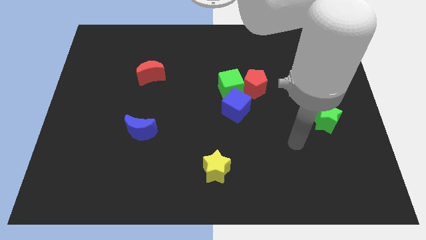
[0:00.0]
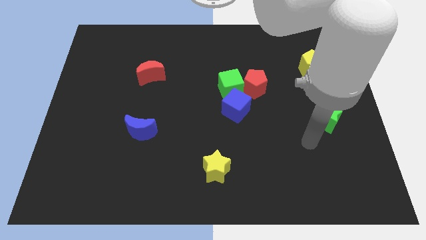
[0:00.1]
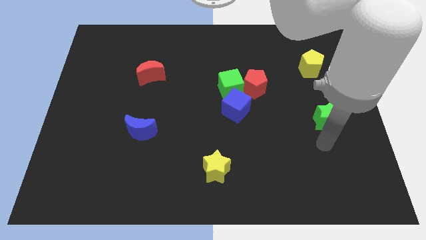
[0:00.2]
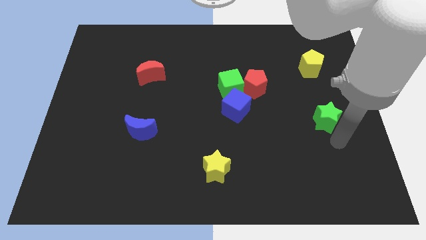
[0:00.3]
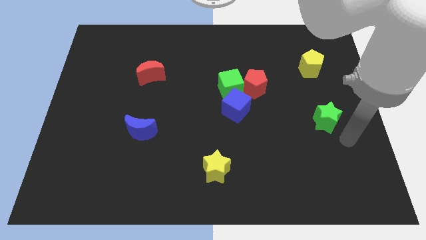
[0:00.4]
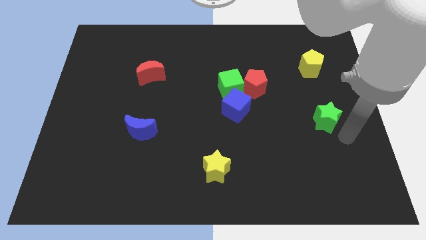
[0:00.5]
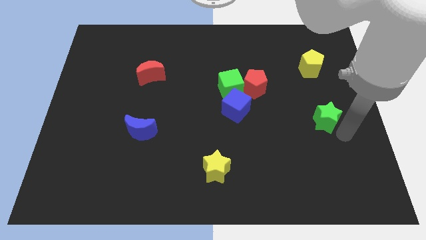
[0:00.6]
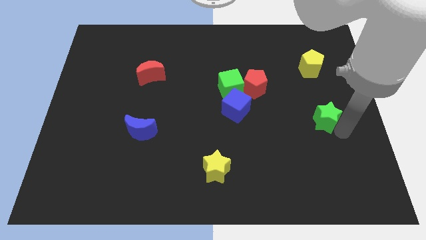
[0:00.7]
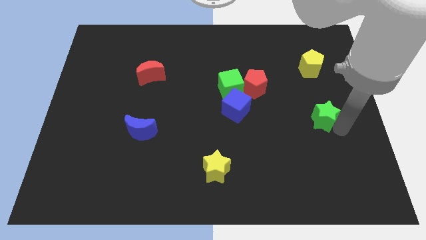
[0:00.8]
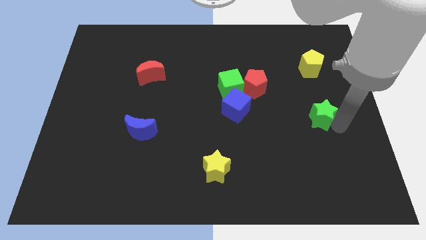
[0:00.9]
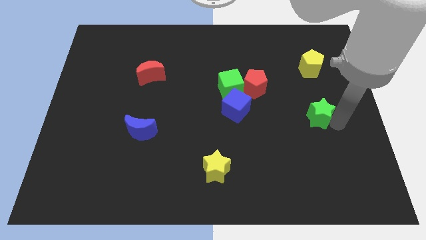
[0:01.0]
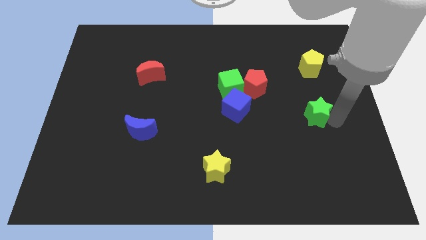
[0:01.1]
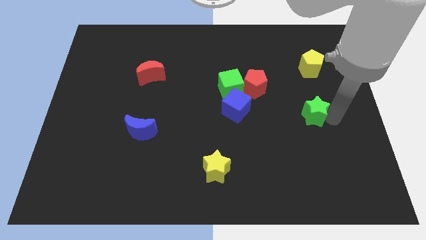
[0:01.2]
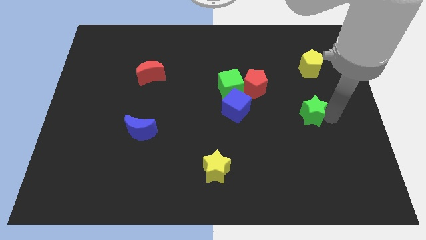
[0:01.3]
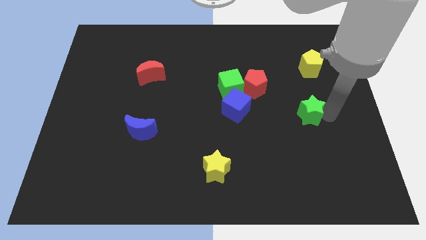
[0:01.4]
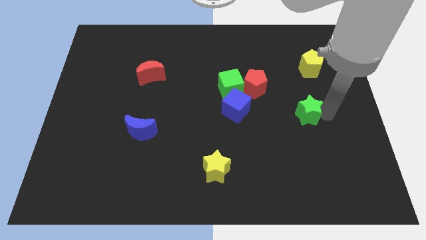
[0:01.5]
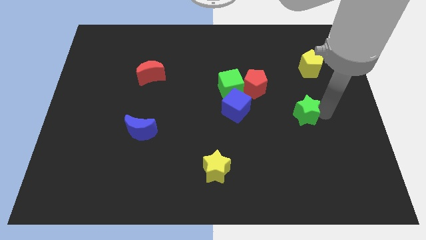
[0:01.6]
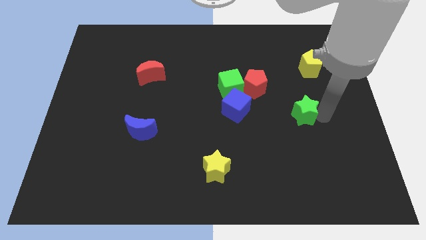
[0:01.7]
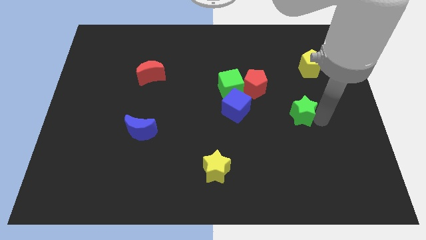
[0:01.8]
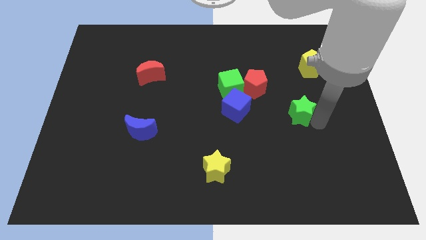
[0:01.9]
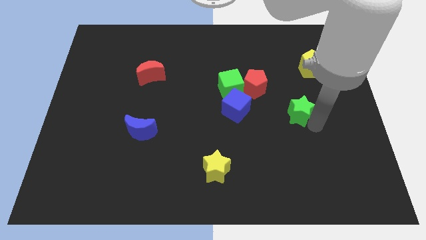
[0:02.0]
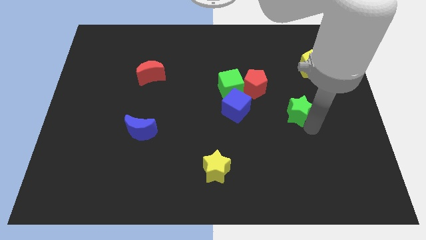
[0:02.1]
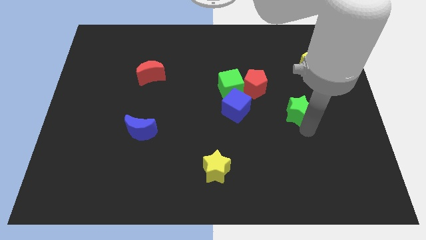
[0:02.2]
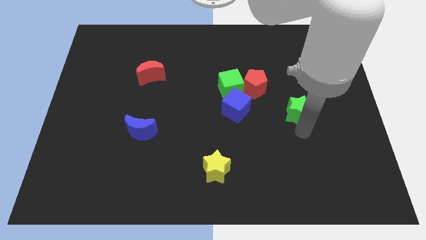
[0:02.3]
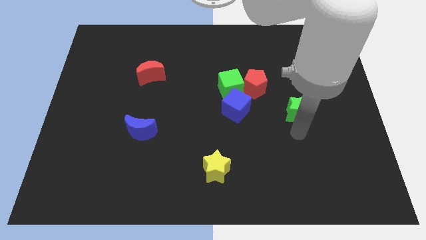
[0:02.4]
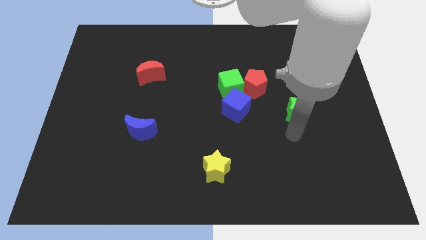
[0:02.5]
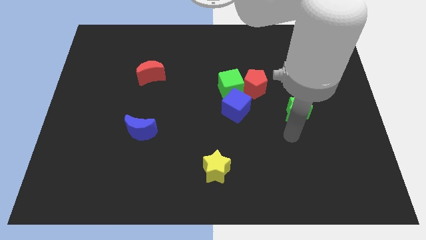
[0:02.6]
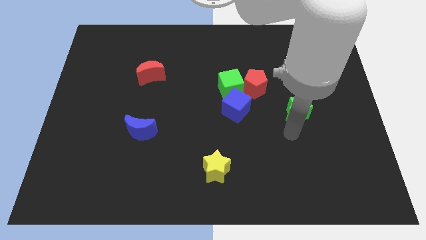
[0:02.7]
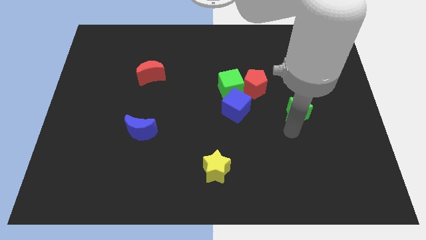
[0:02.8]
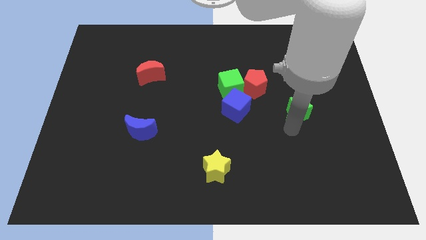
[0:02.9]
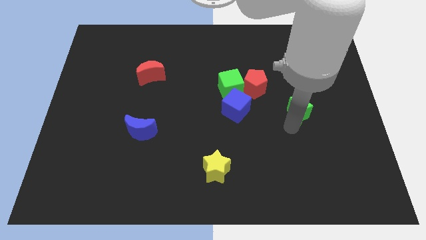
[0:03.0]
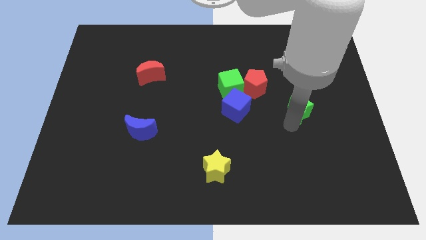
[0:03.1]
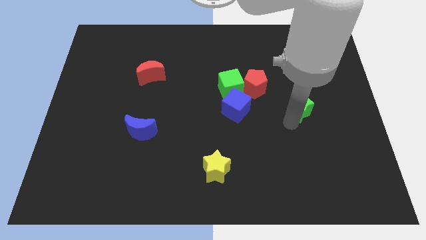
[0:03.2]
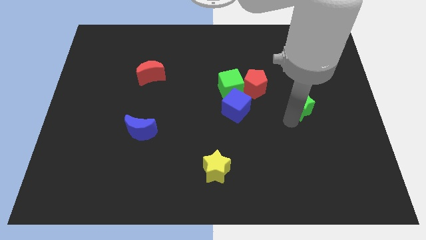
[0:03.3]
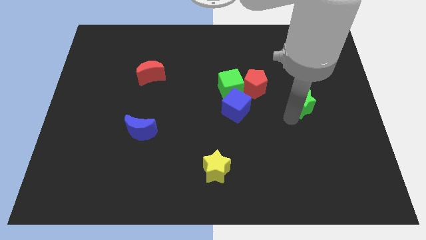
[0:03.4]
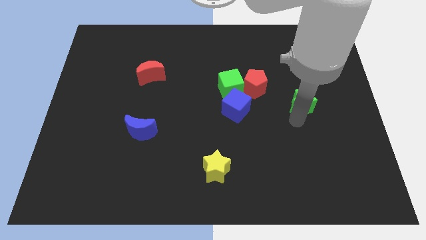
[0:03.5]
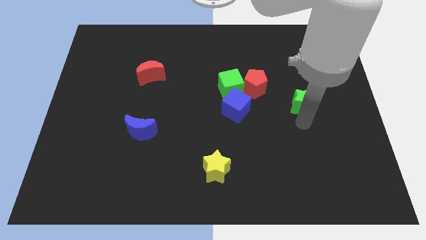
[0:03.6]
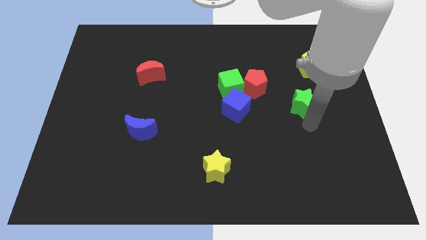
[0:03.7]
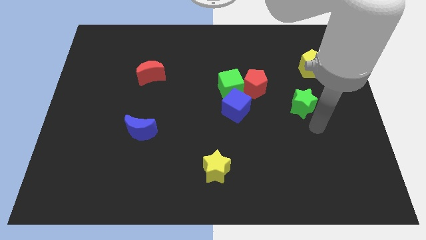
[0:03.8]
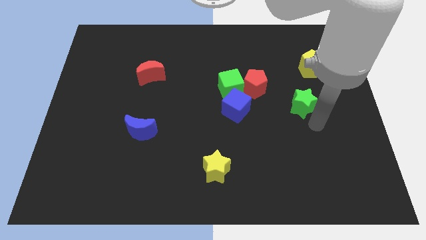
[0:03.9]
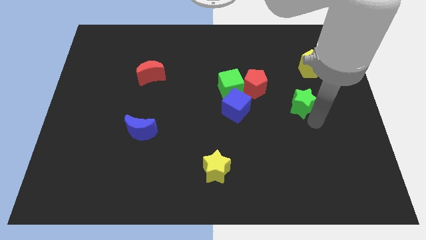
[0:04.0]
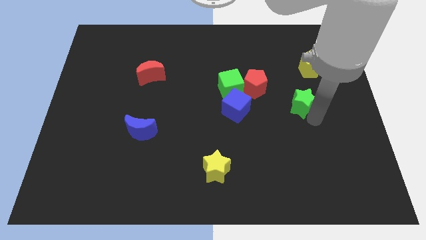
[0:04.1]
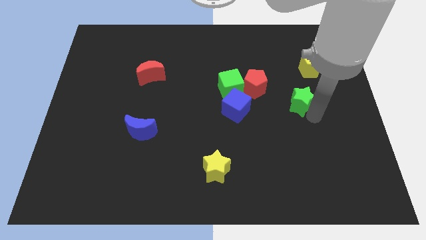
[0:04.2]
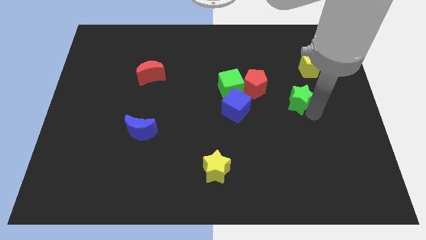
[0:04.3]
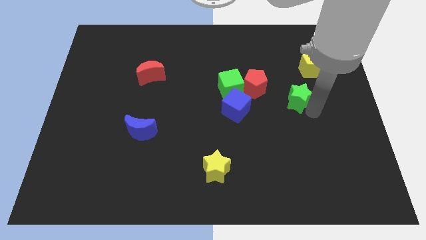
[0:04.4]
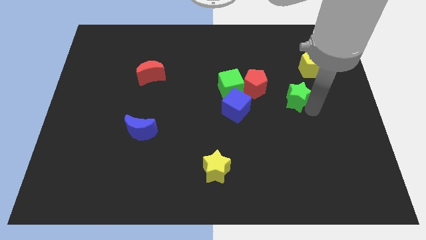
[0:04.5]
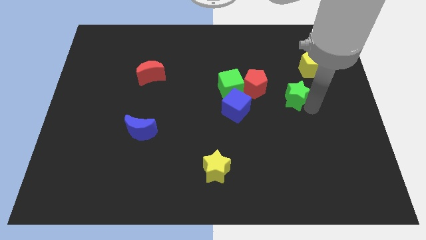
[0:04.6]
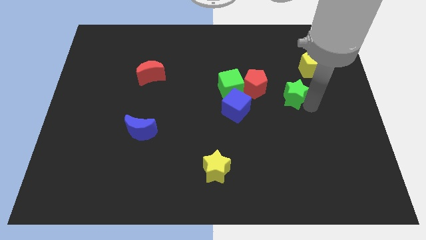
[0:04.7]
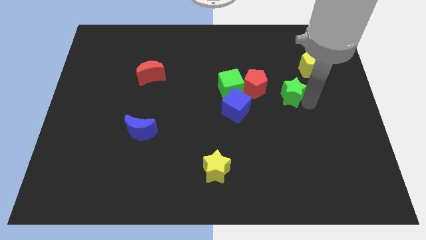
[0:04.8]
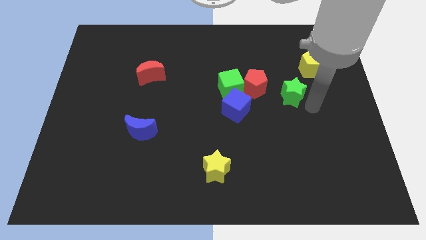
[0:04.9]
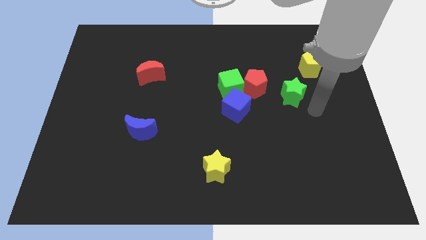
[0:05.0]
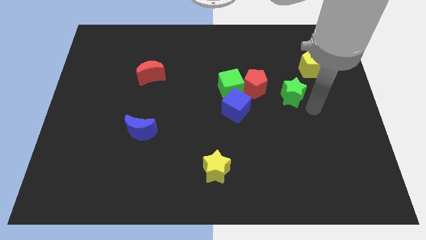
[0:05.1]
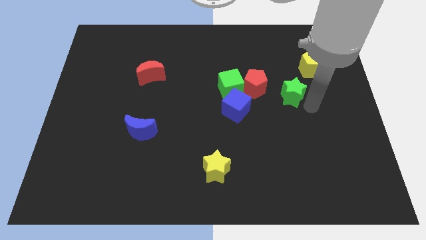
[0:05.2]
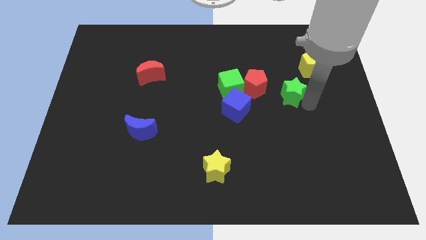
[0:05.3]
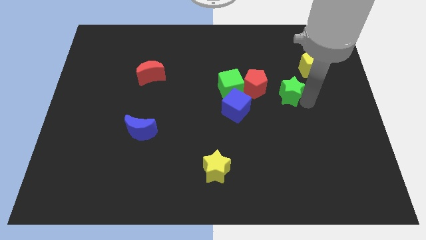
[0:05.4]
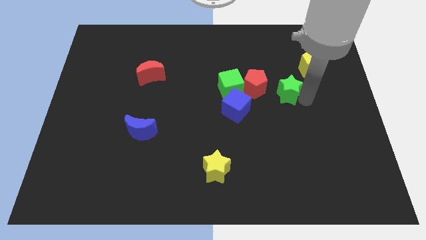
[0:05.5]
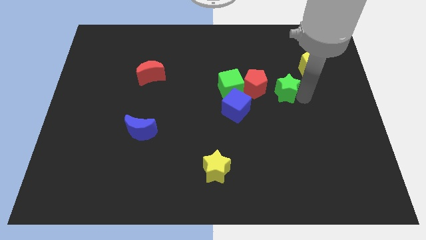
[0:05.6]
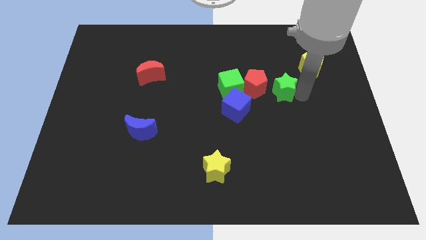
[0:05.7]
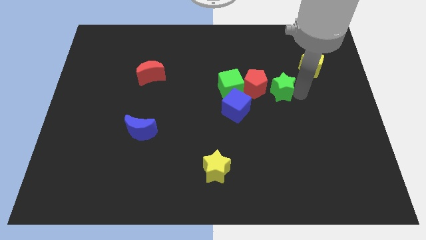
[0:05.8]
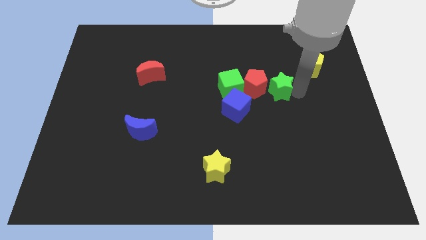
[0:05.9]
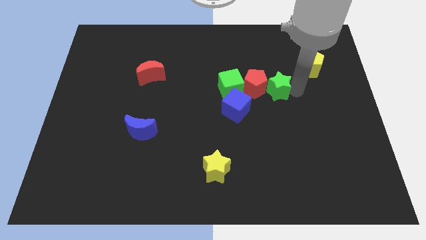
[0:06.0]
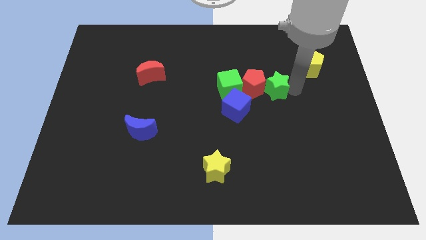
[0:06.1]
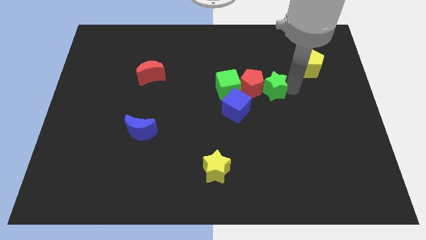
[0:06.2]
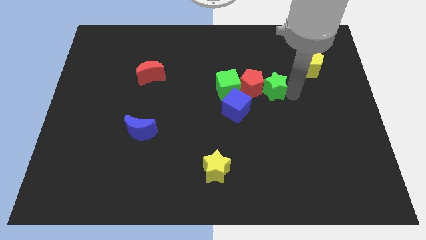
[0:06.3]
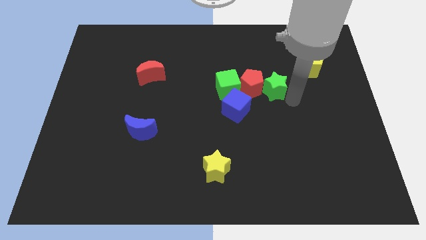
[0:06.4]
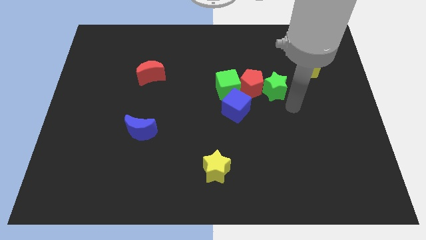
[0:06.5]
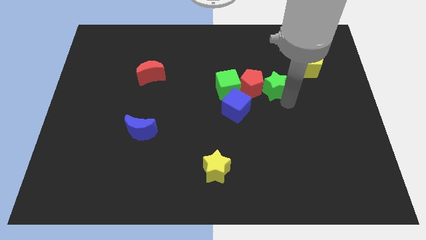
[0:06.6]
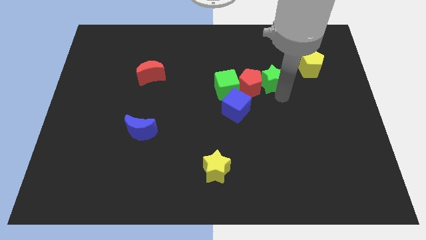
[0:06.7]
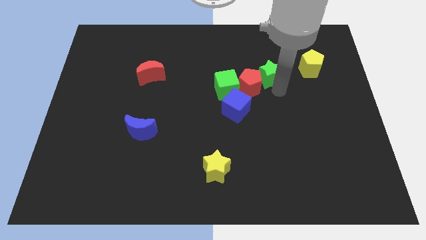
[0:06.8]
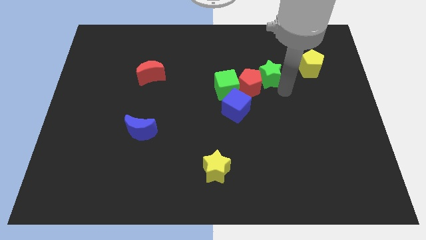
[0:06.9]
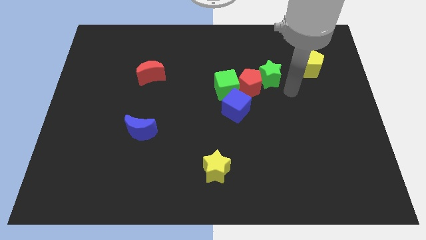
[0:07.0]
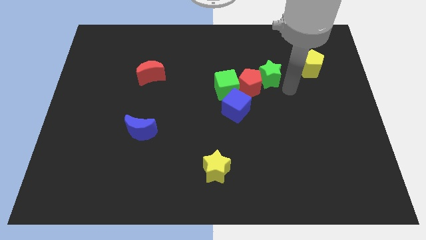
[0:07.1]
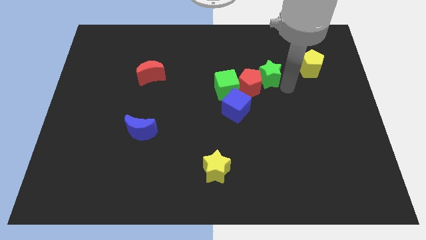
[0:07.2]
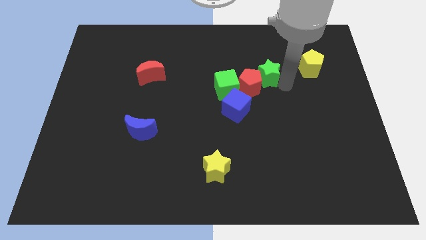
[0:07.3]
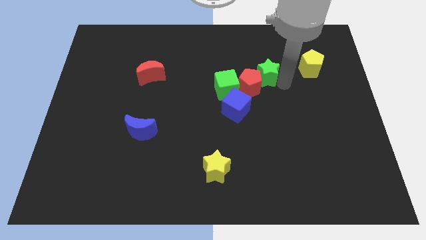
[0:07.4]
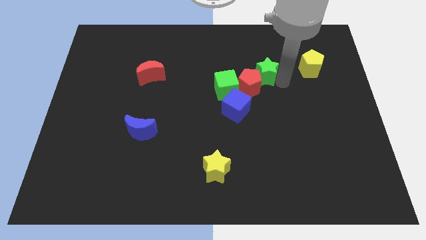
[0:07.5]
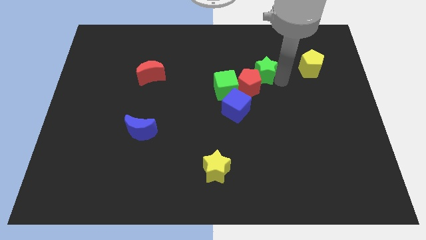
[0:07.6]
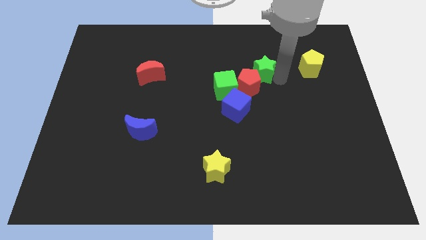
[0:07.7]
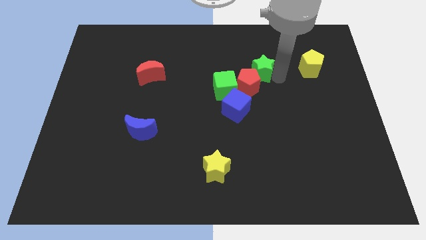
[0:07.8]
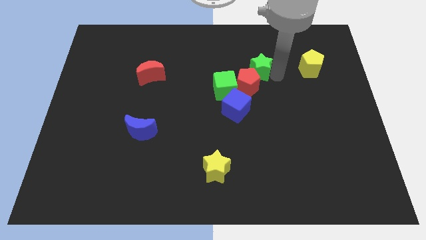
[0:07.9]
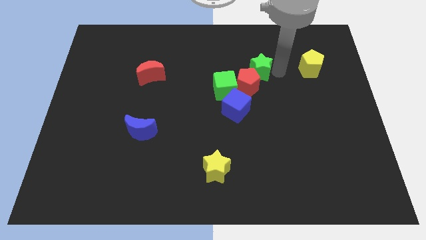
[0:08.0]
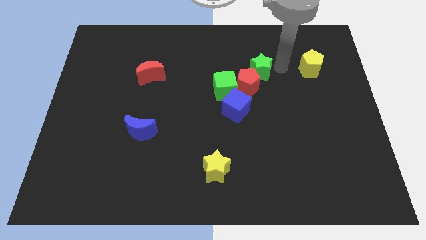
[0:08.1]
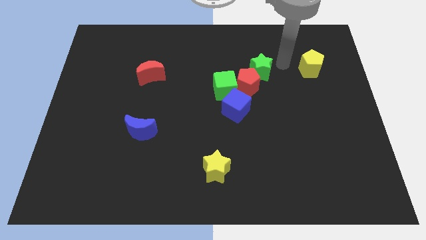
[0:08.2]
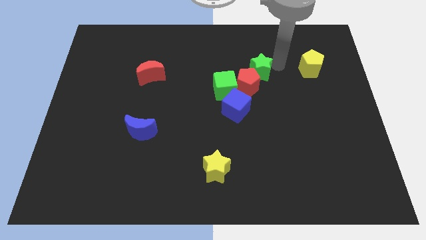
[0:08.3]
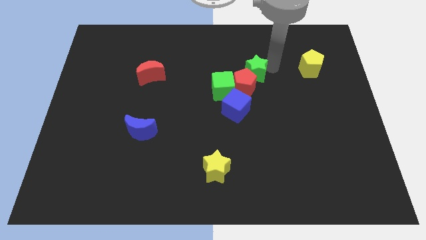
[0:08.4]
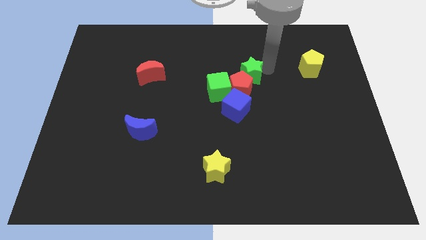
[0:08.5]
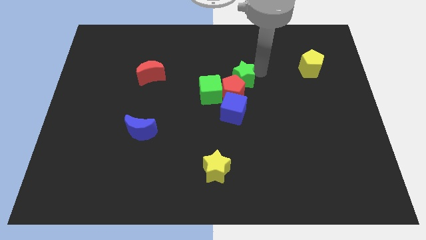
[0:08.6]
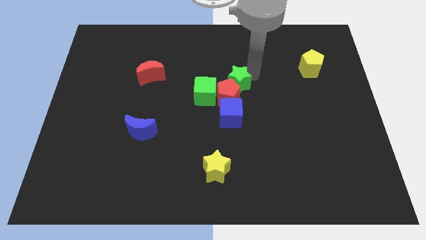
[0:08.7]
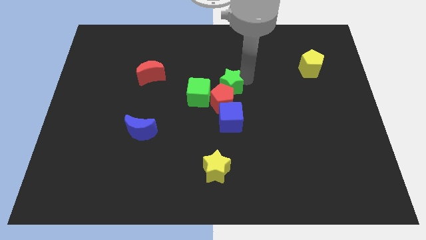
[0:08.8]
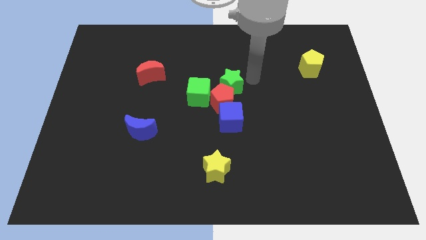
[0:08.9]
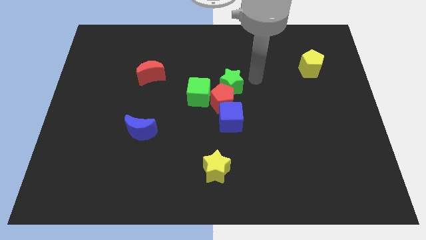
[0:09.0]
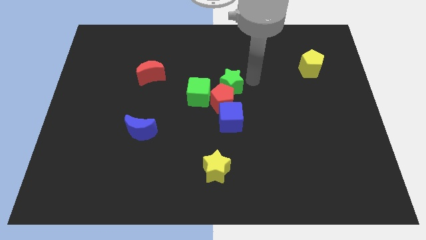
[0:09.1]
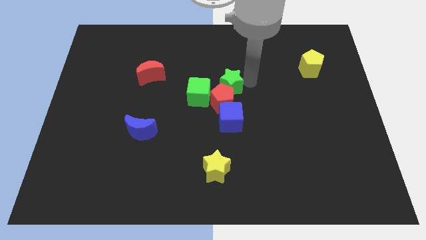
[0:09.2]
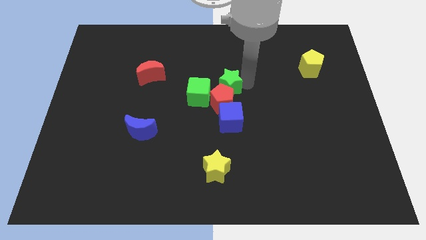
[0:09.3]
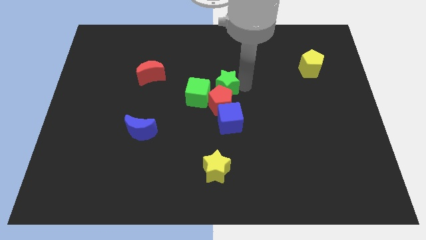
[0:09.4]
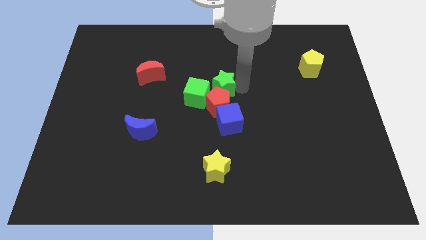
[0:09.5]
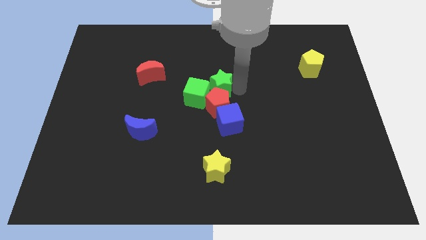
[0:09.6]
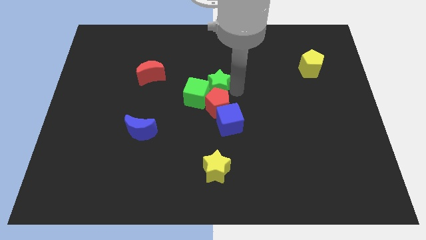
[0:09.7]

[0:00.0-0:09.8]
slide the green star towards the green cube
